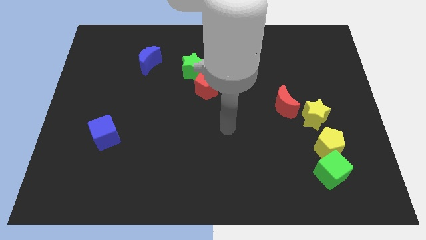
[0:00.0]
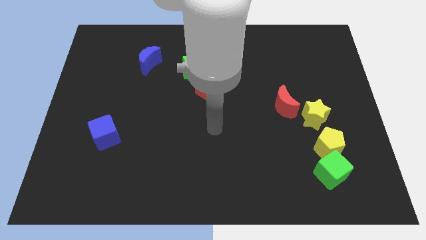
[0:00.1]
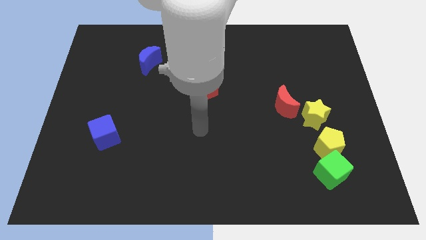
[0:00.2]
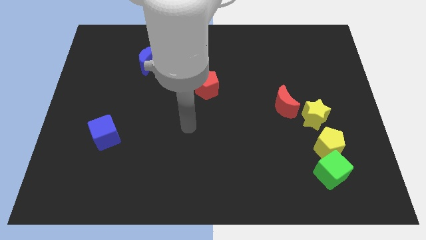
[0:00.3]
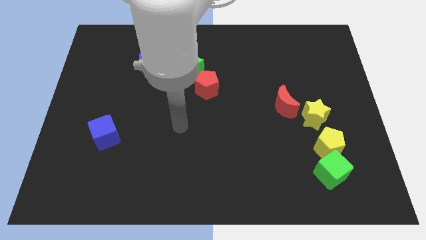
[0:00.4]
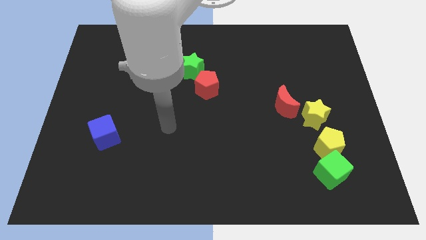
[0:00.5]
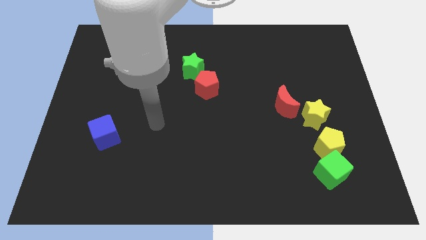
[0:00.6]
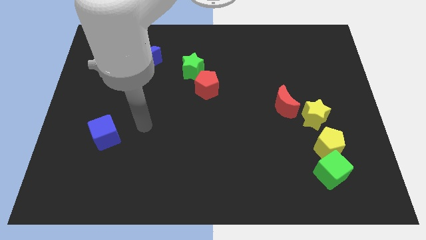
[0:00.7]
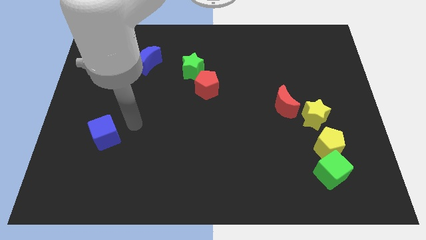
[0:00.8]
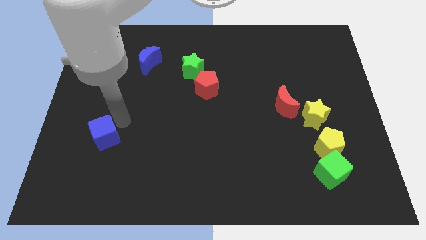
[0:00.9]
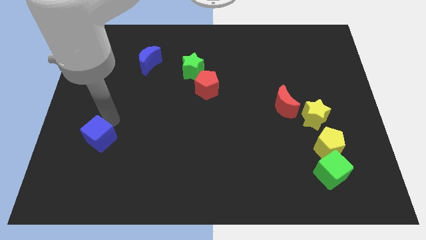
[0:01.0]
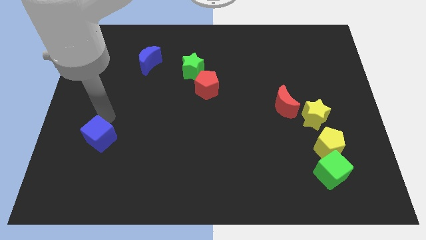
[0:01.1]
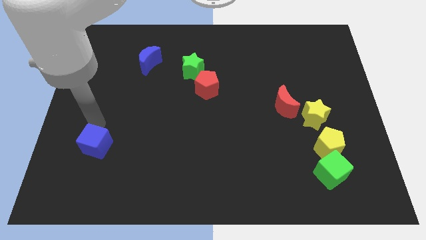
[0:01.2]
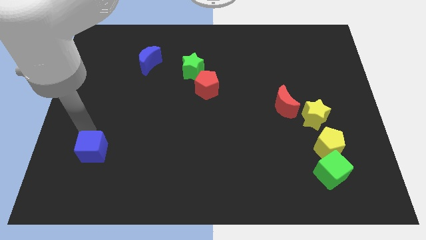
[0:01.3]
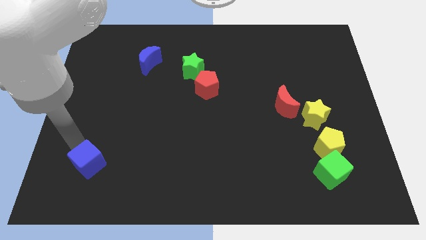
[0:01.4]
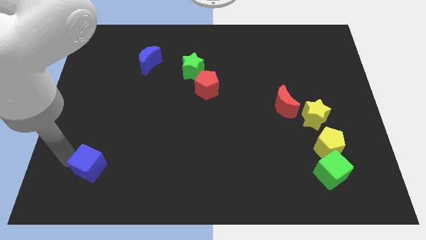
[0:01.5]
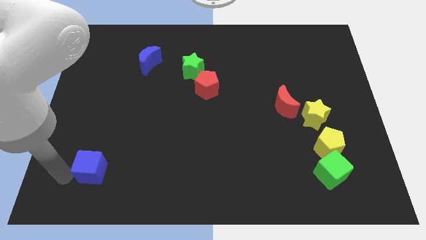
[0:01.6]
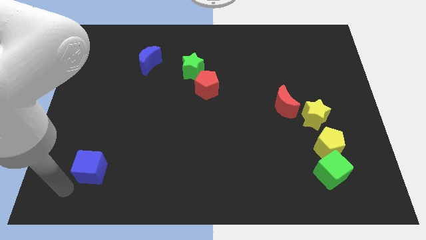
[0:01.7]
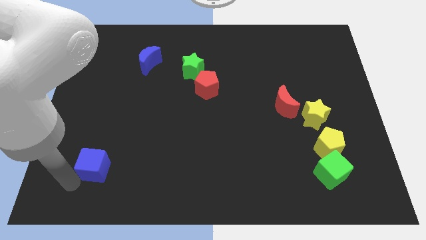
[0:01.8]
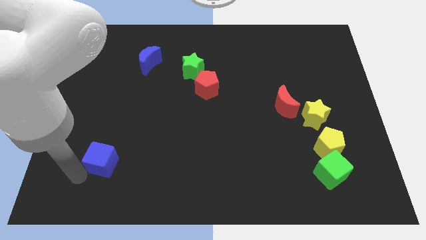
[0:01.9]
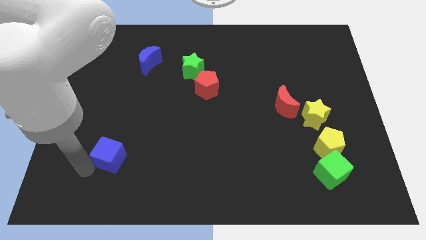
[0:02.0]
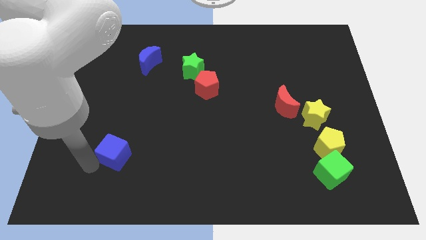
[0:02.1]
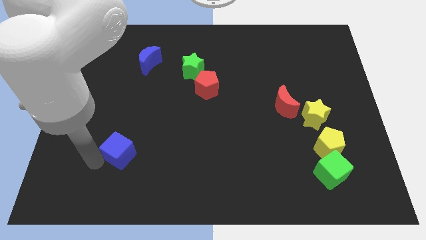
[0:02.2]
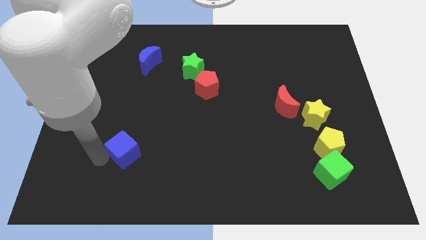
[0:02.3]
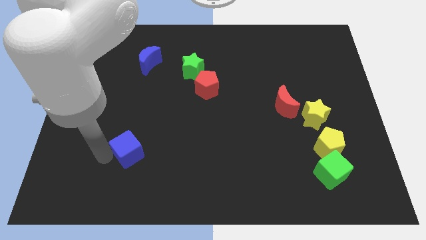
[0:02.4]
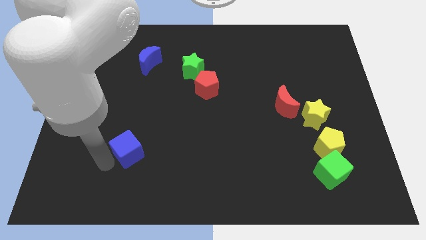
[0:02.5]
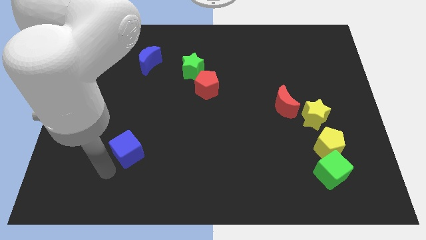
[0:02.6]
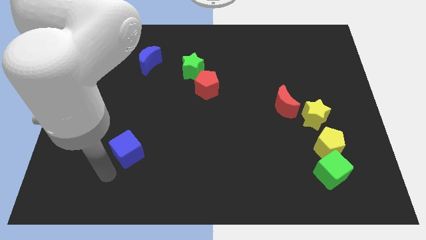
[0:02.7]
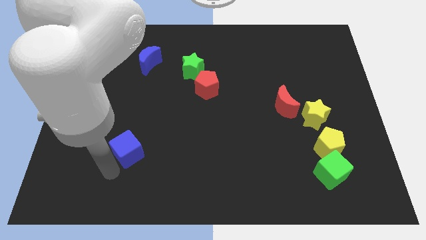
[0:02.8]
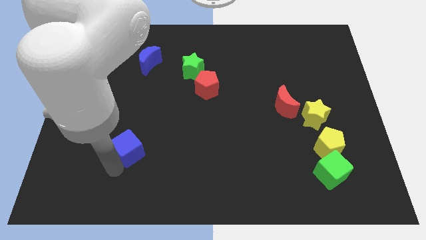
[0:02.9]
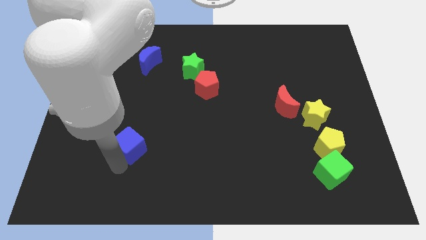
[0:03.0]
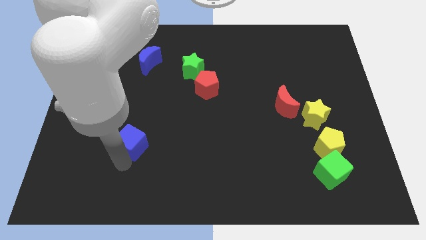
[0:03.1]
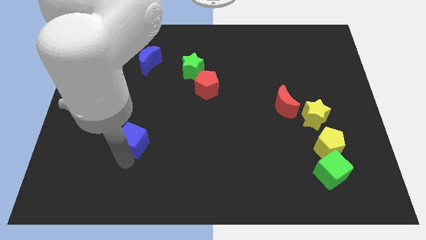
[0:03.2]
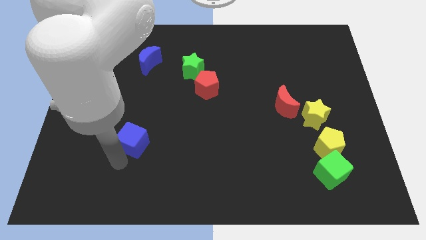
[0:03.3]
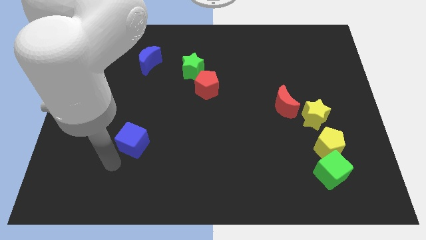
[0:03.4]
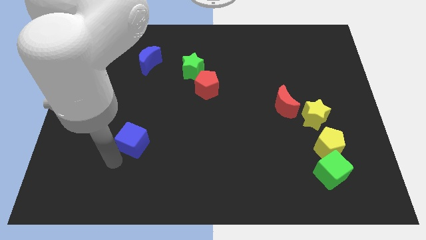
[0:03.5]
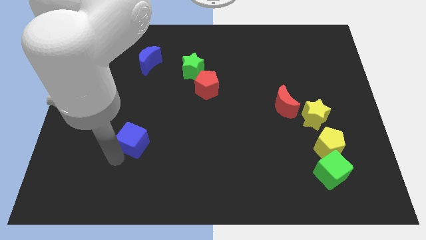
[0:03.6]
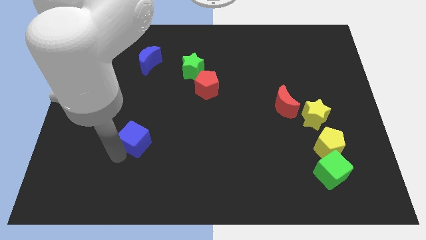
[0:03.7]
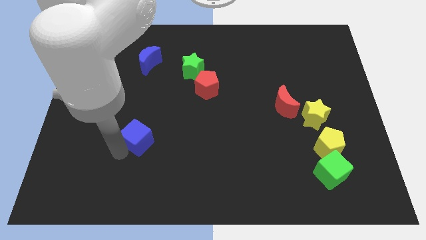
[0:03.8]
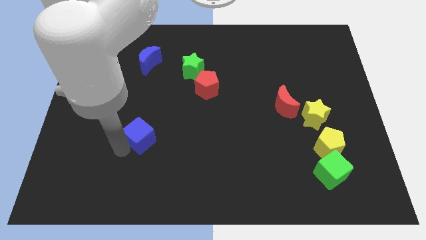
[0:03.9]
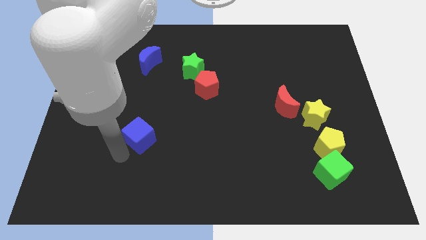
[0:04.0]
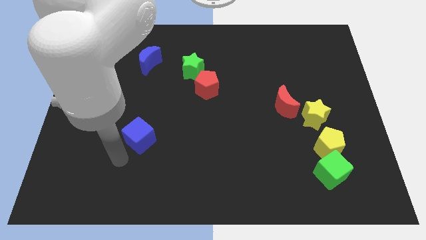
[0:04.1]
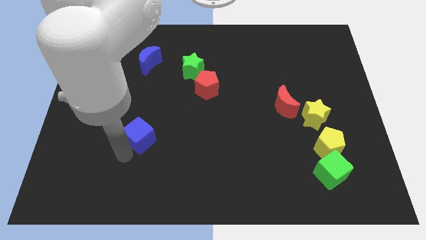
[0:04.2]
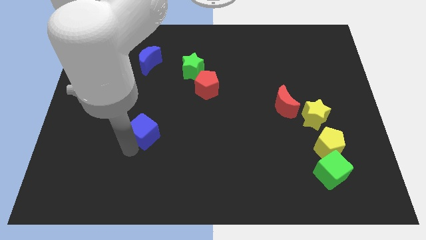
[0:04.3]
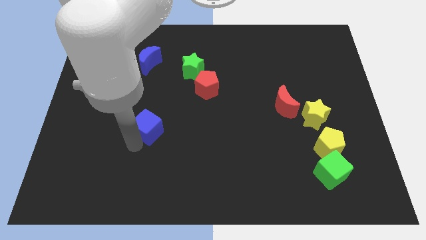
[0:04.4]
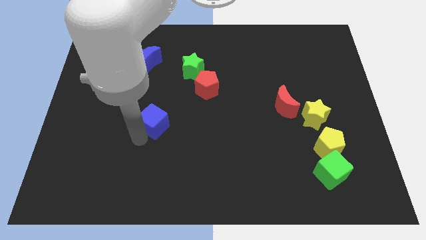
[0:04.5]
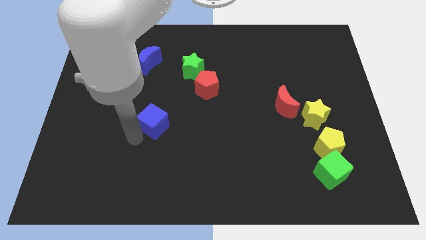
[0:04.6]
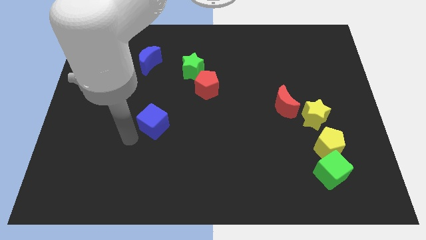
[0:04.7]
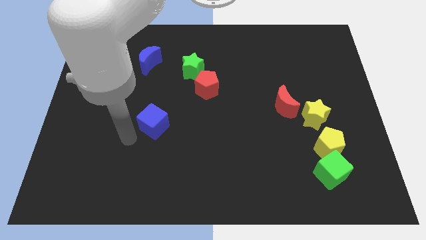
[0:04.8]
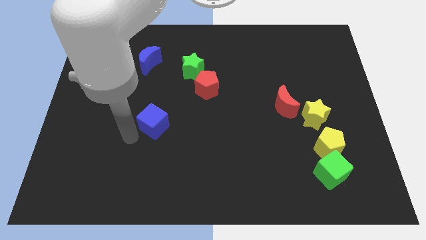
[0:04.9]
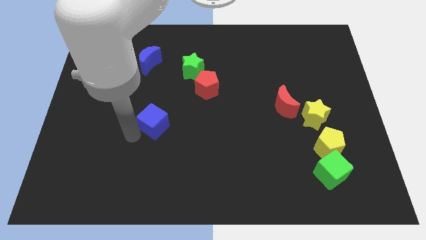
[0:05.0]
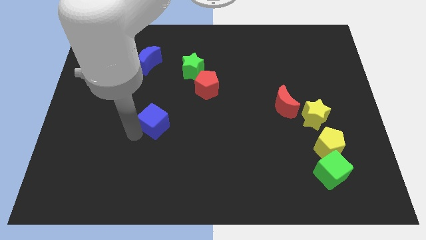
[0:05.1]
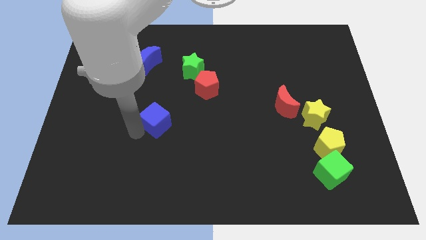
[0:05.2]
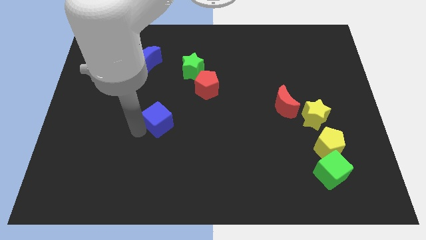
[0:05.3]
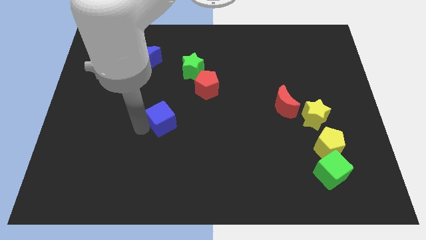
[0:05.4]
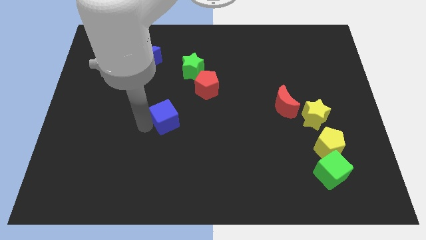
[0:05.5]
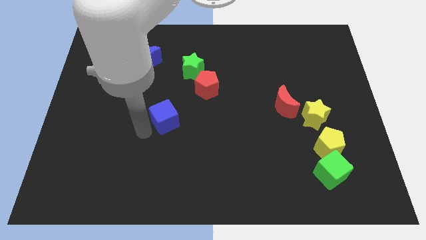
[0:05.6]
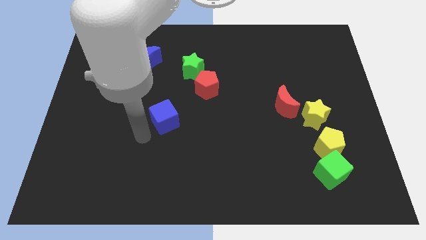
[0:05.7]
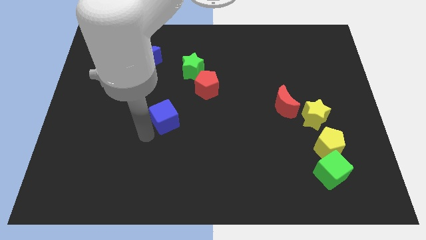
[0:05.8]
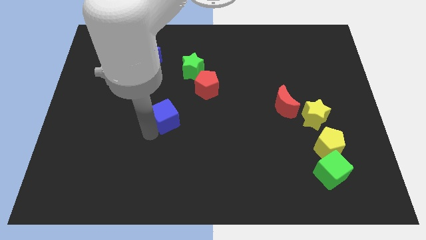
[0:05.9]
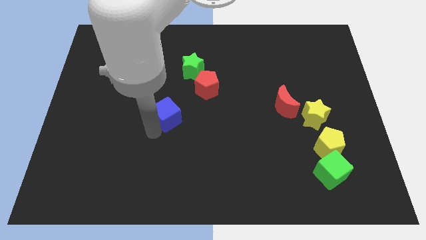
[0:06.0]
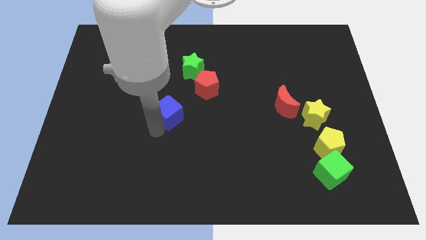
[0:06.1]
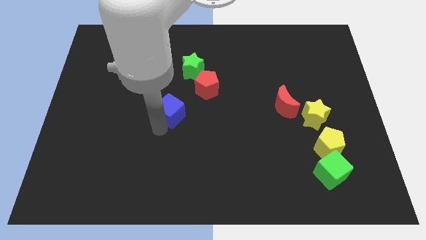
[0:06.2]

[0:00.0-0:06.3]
push the blue cube below the green star
